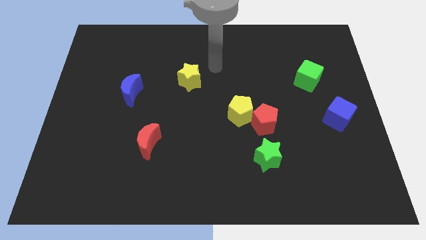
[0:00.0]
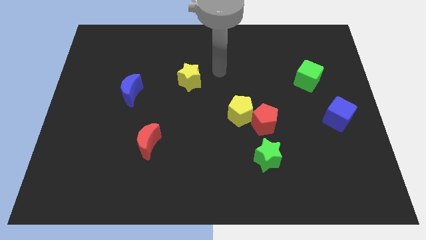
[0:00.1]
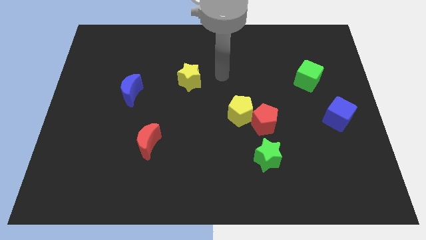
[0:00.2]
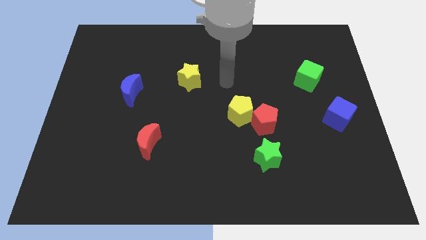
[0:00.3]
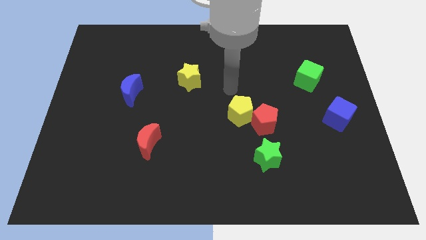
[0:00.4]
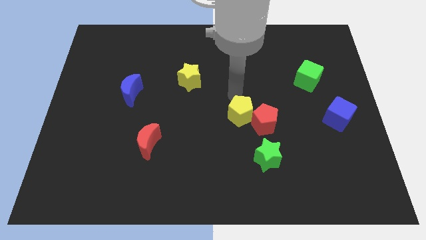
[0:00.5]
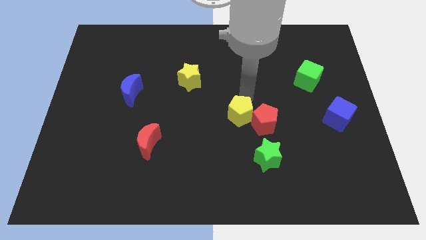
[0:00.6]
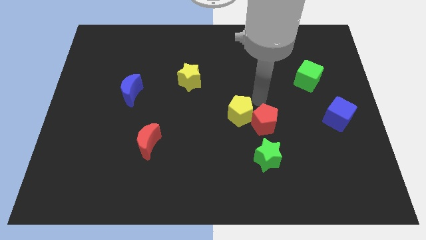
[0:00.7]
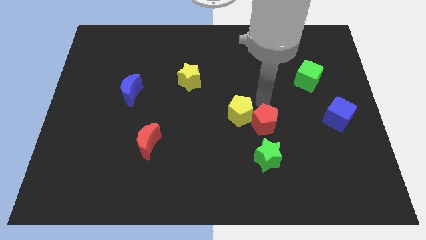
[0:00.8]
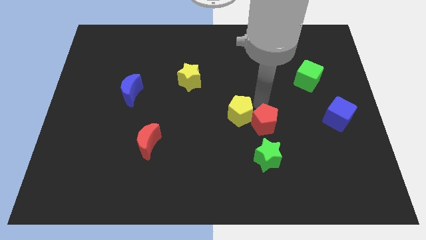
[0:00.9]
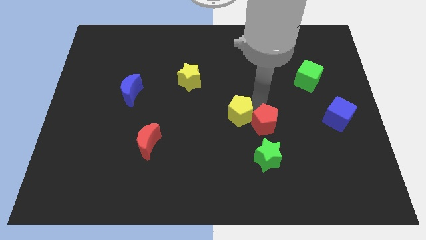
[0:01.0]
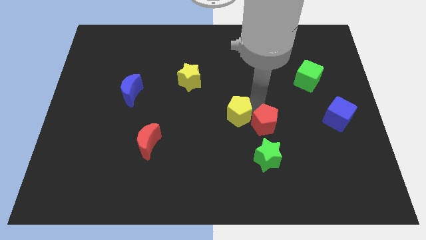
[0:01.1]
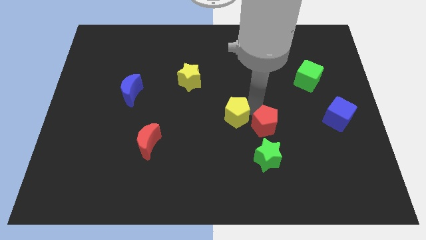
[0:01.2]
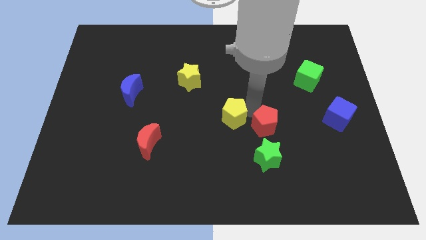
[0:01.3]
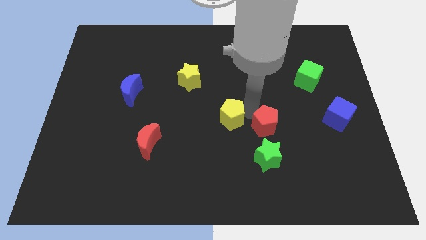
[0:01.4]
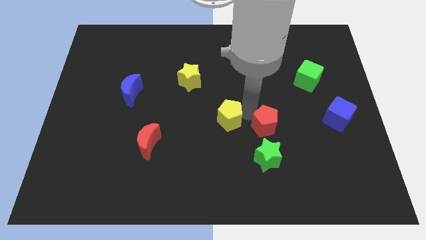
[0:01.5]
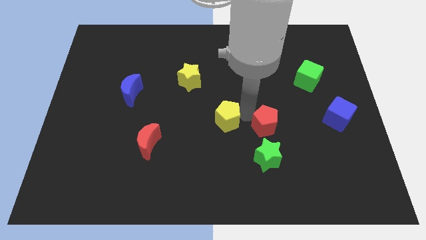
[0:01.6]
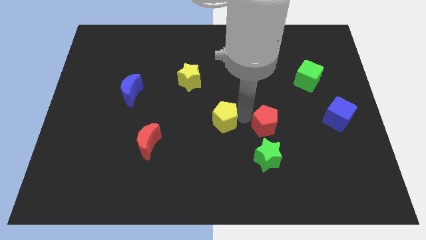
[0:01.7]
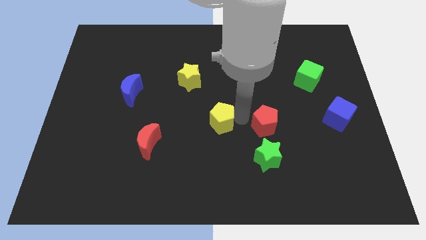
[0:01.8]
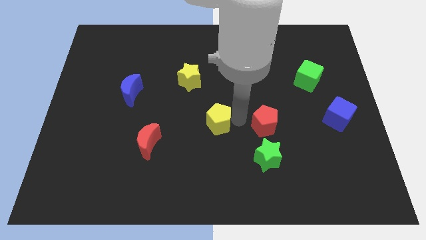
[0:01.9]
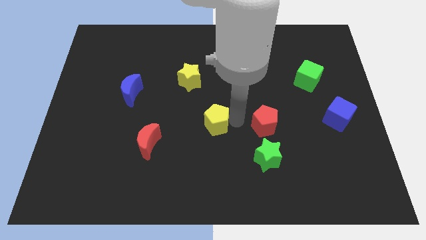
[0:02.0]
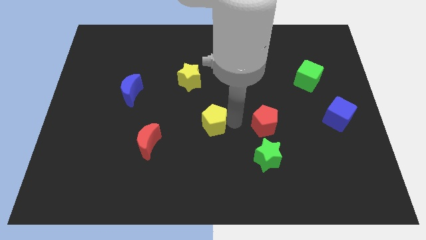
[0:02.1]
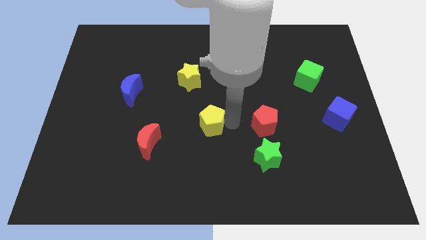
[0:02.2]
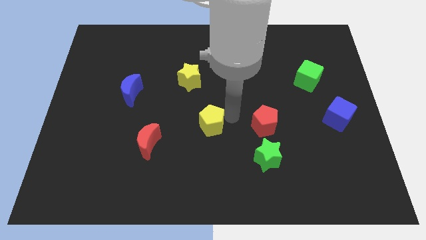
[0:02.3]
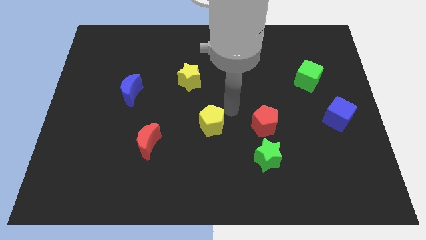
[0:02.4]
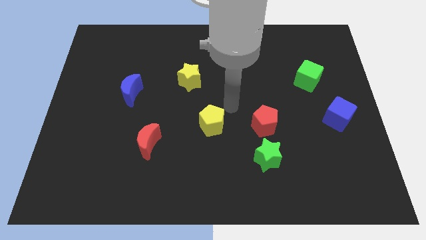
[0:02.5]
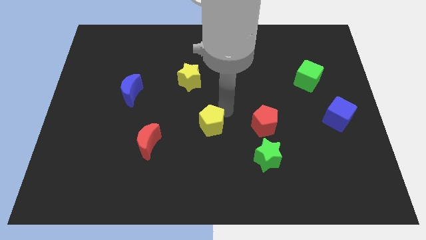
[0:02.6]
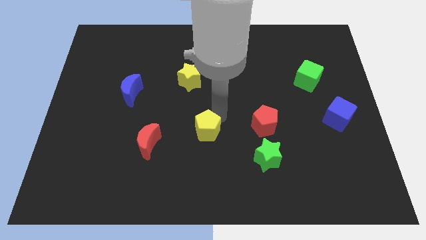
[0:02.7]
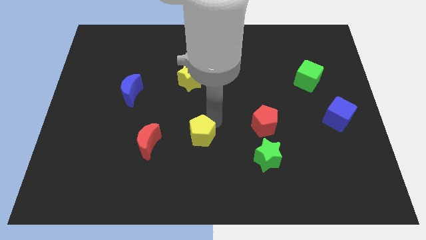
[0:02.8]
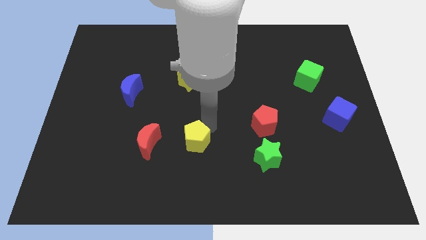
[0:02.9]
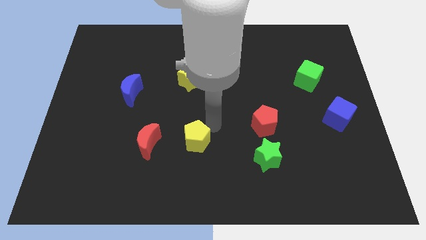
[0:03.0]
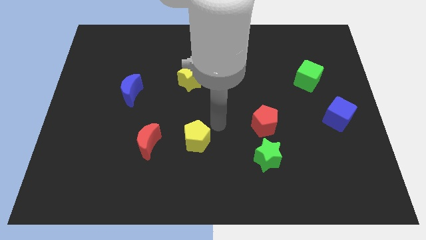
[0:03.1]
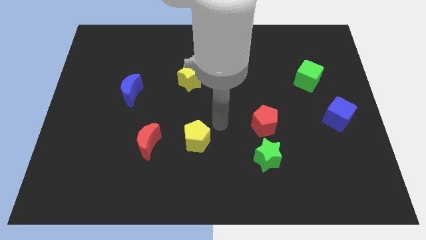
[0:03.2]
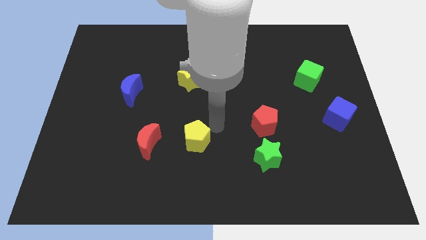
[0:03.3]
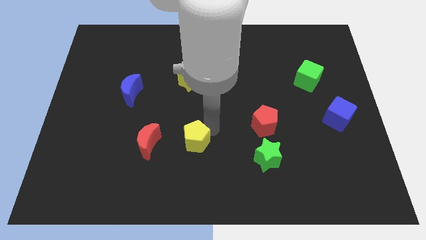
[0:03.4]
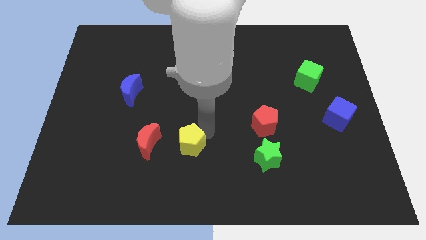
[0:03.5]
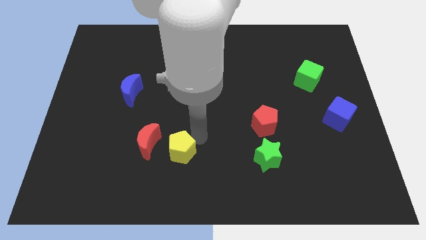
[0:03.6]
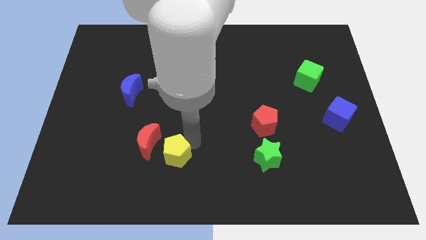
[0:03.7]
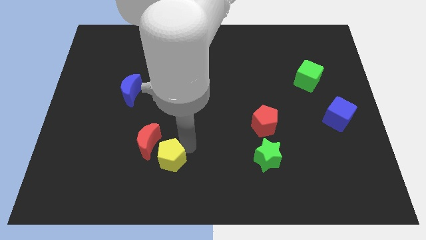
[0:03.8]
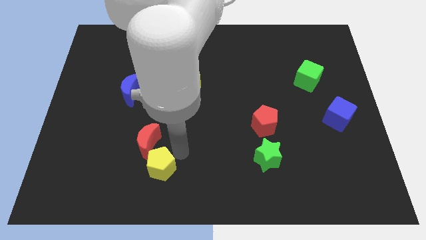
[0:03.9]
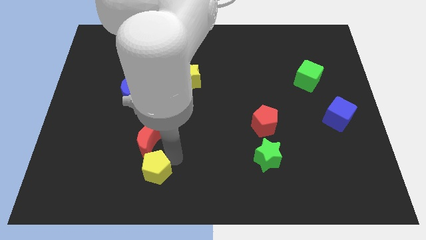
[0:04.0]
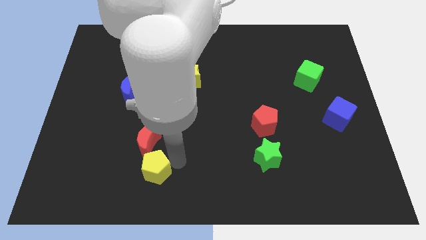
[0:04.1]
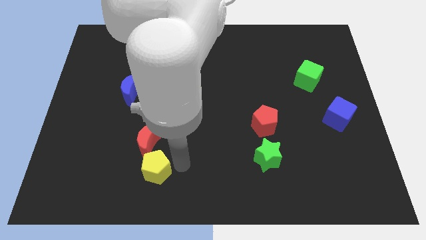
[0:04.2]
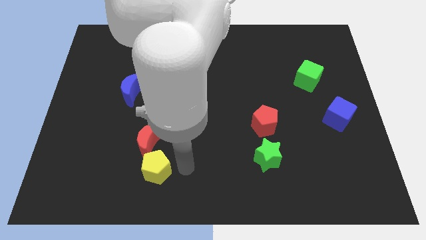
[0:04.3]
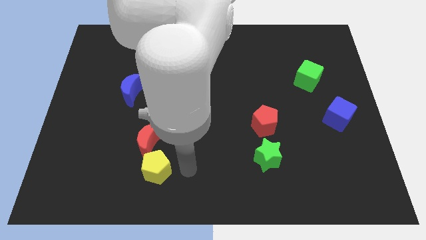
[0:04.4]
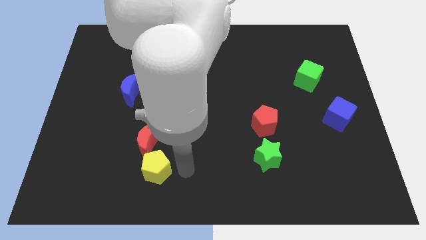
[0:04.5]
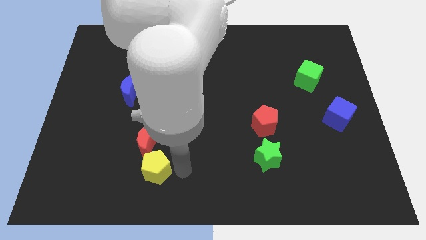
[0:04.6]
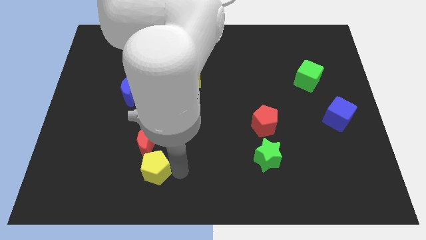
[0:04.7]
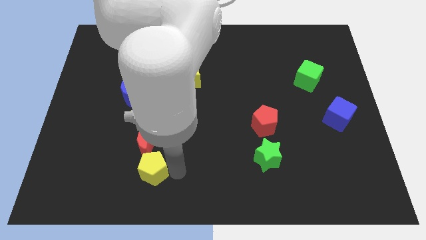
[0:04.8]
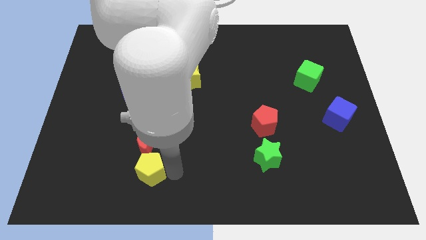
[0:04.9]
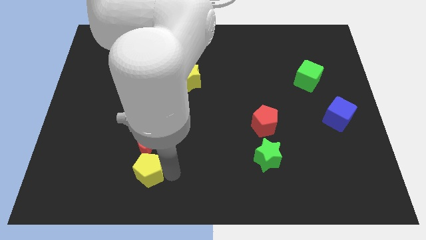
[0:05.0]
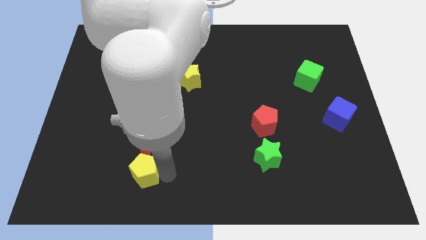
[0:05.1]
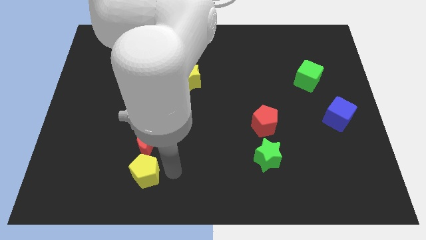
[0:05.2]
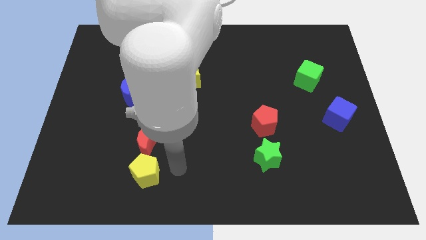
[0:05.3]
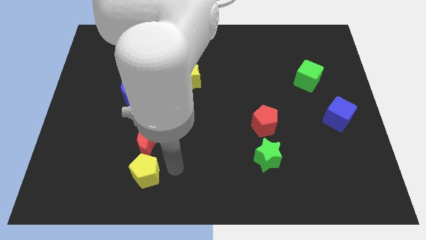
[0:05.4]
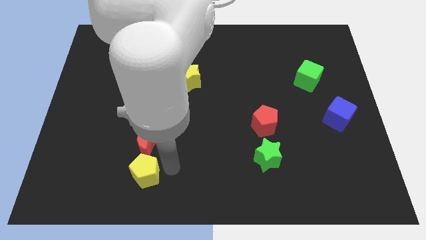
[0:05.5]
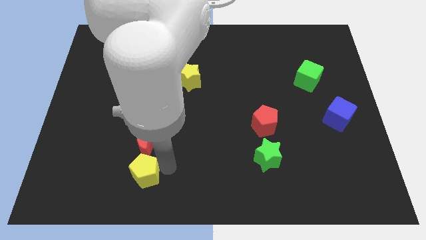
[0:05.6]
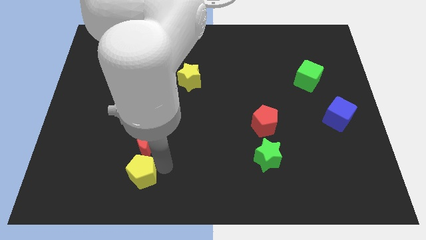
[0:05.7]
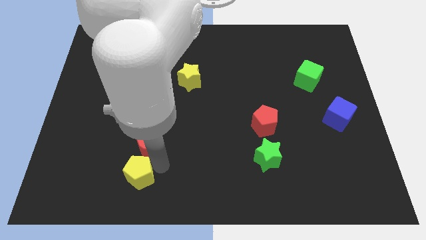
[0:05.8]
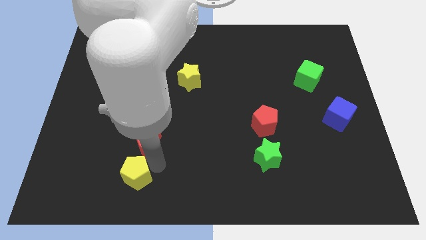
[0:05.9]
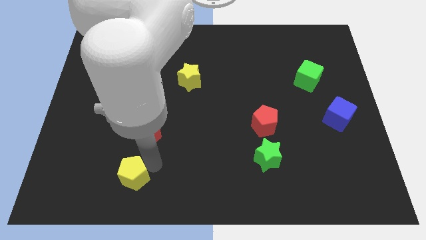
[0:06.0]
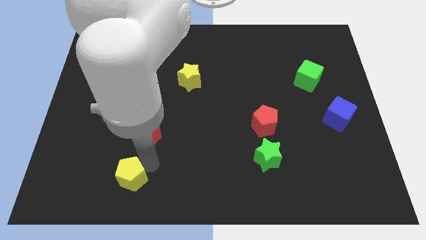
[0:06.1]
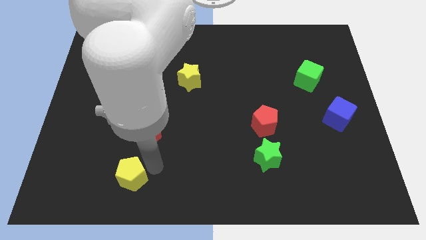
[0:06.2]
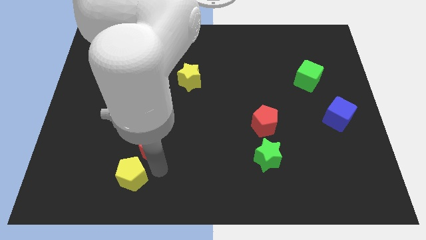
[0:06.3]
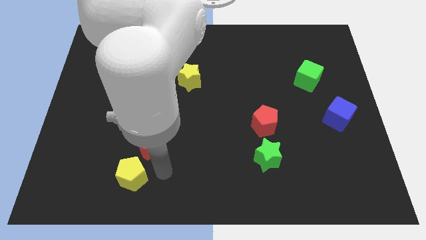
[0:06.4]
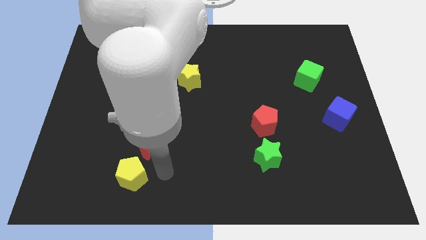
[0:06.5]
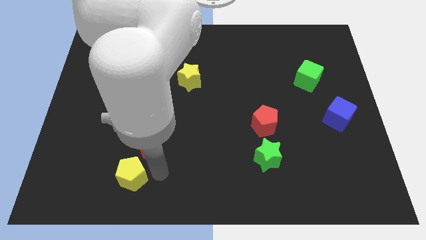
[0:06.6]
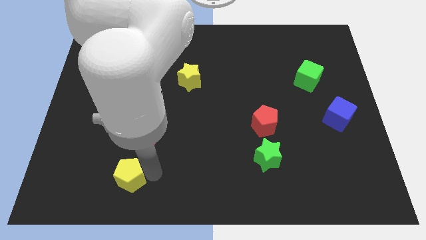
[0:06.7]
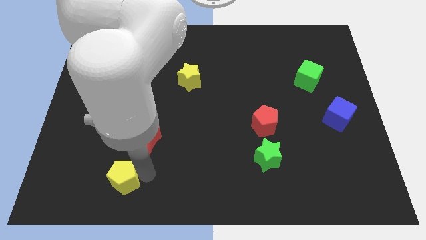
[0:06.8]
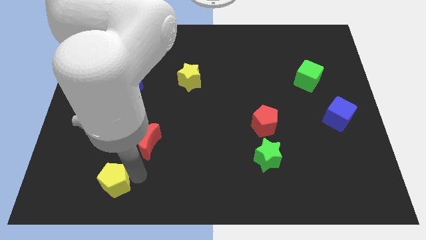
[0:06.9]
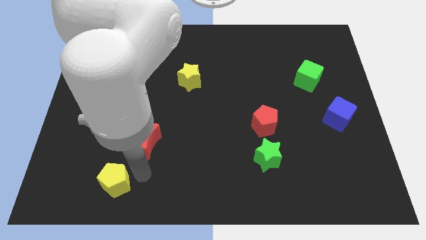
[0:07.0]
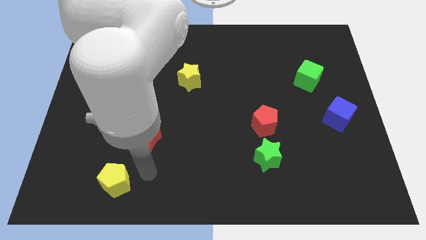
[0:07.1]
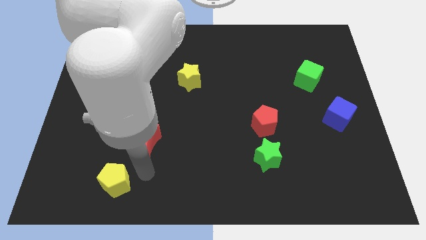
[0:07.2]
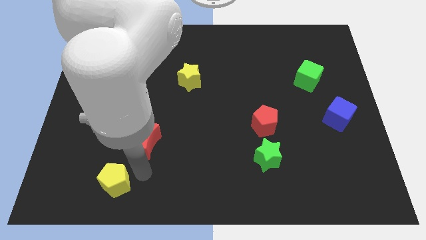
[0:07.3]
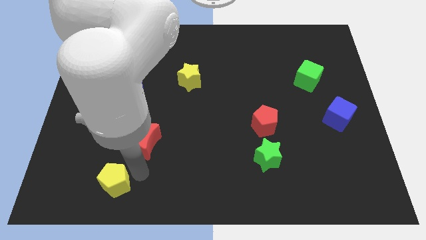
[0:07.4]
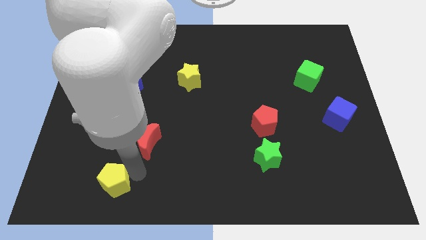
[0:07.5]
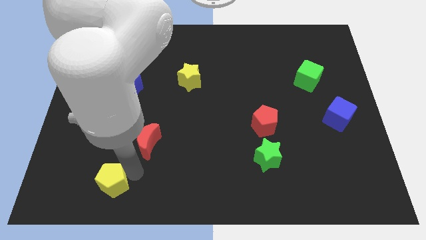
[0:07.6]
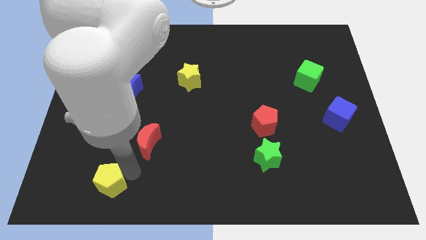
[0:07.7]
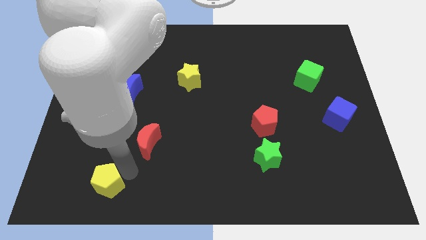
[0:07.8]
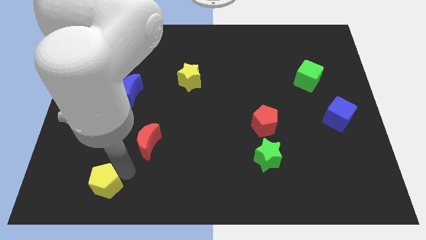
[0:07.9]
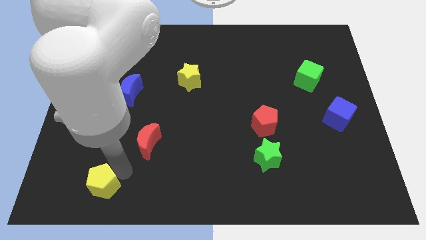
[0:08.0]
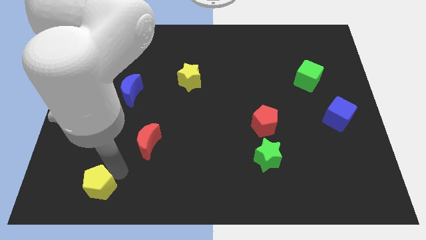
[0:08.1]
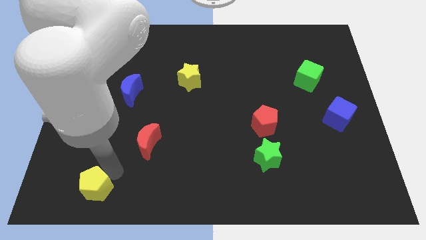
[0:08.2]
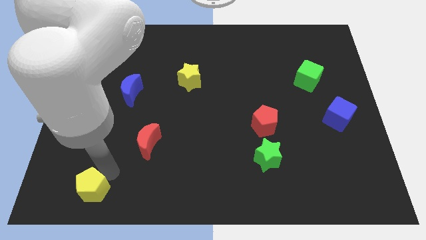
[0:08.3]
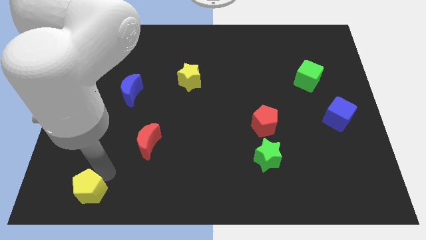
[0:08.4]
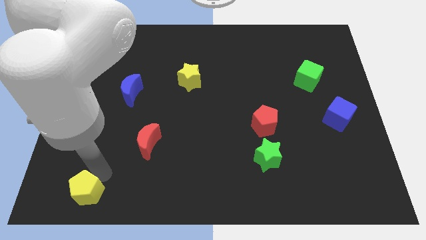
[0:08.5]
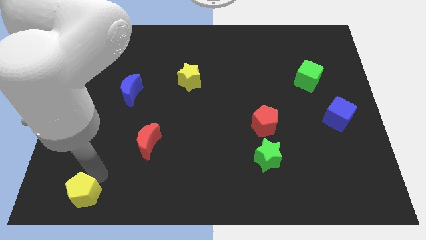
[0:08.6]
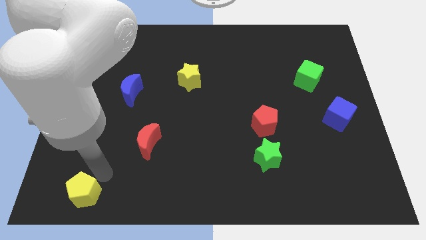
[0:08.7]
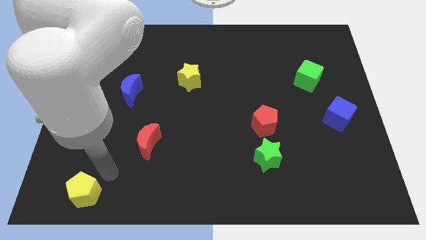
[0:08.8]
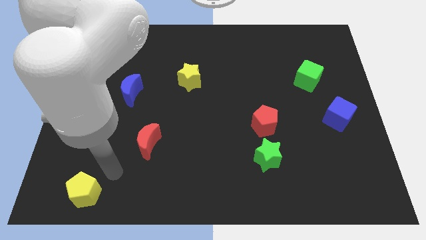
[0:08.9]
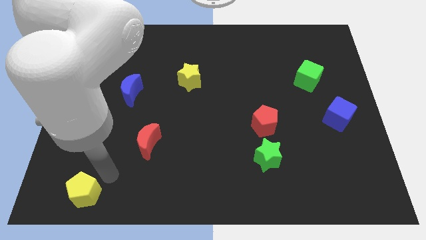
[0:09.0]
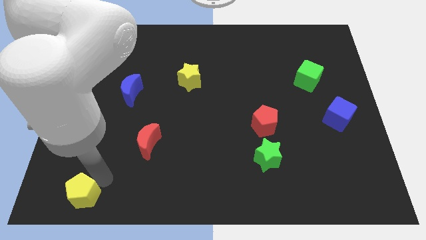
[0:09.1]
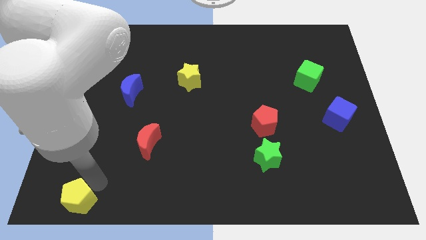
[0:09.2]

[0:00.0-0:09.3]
slide the yellow pentagon to the bottom left
